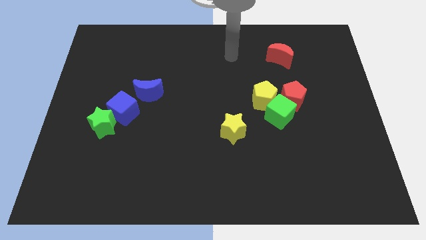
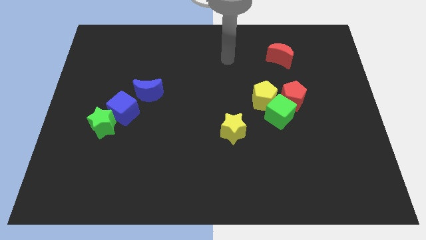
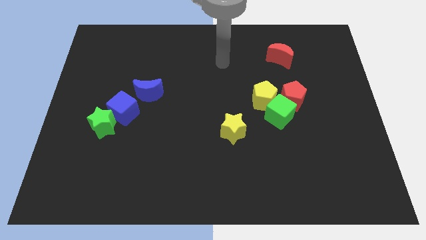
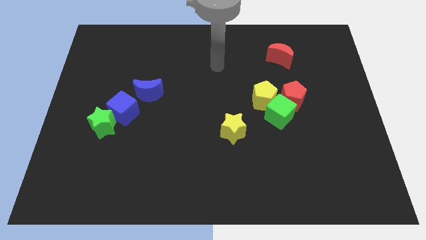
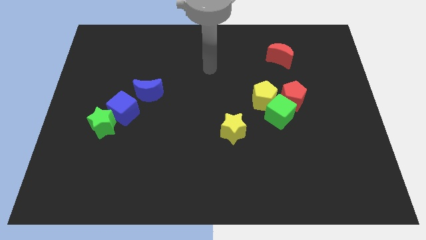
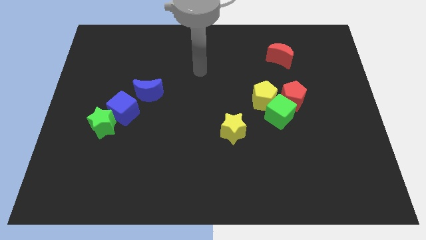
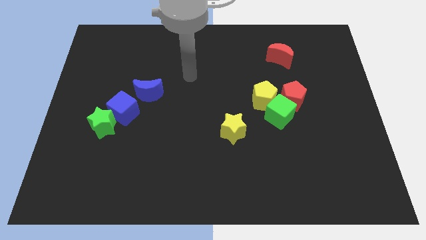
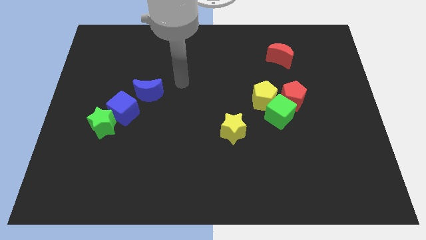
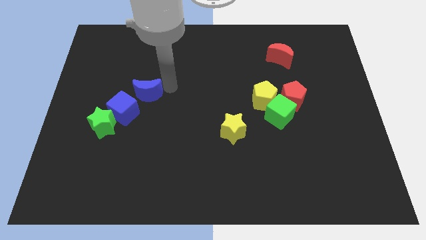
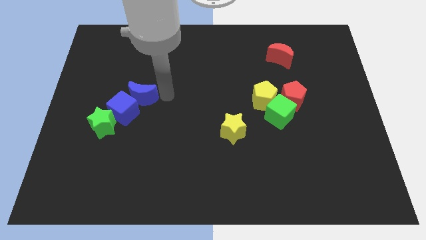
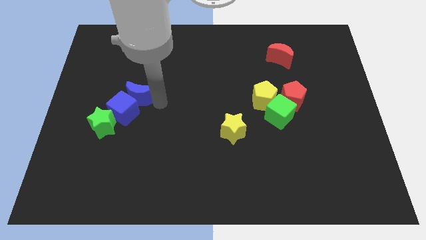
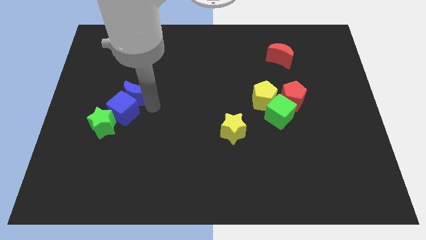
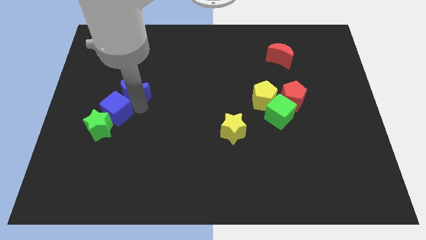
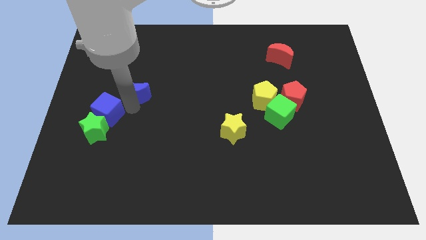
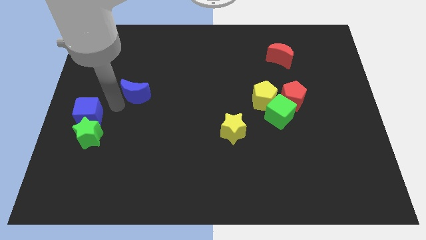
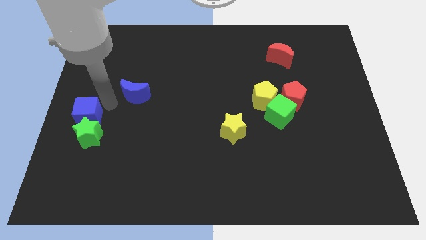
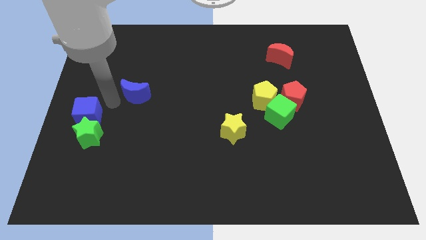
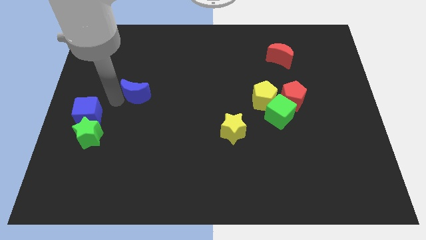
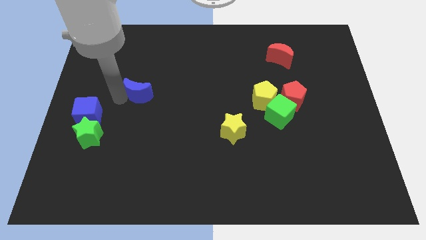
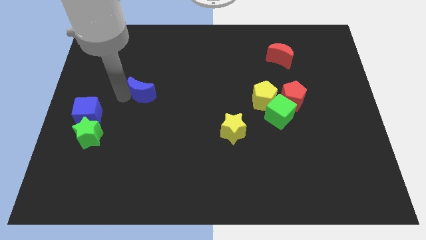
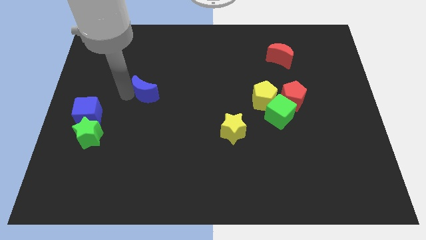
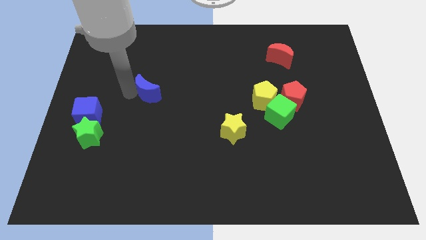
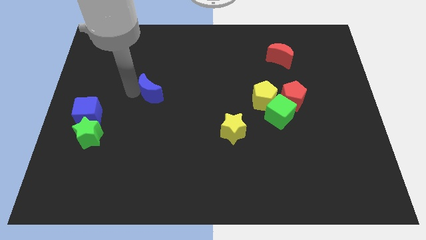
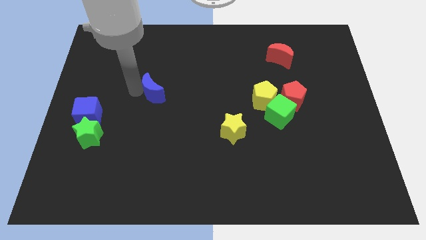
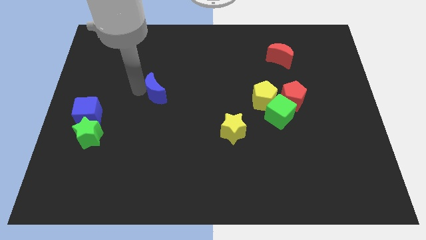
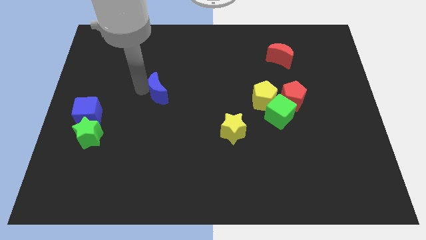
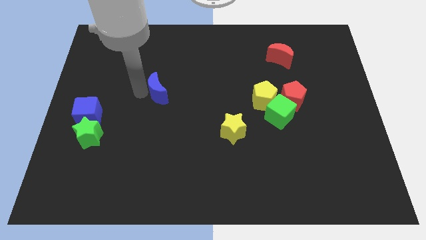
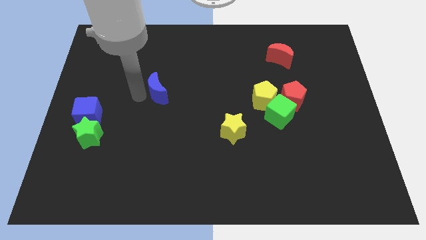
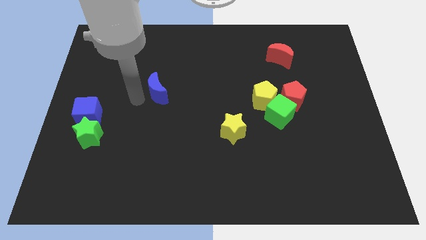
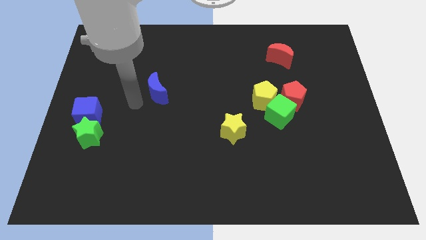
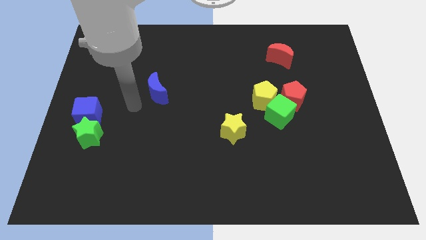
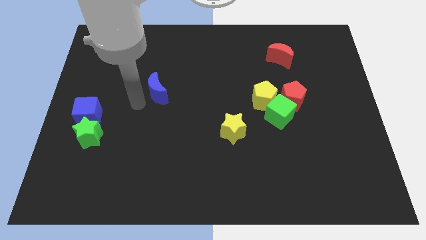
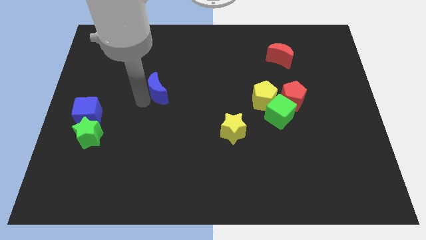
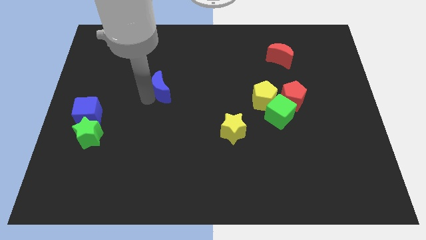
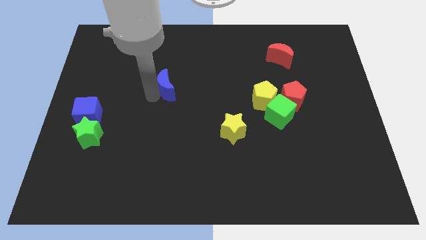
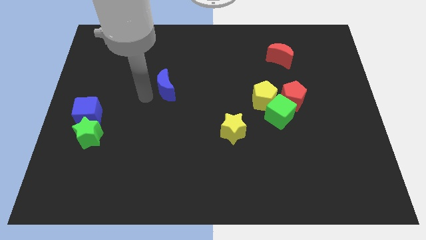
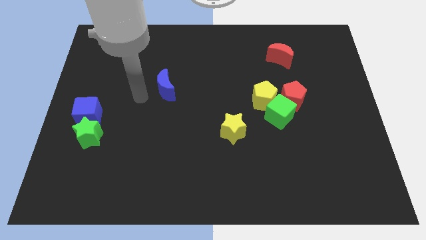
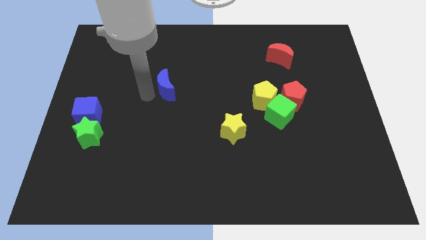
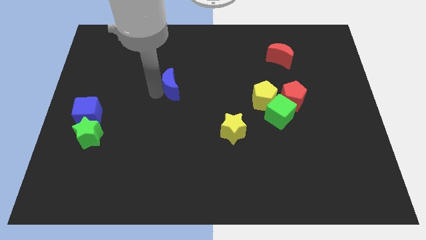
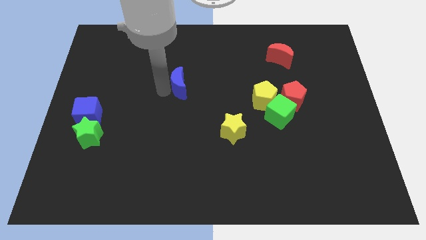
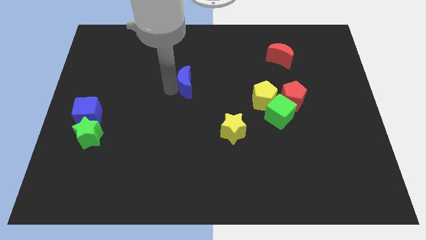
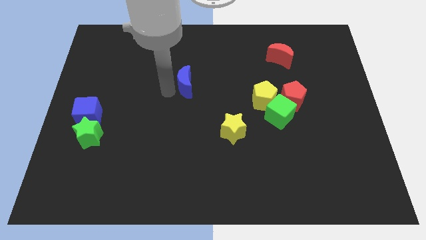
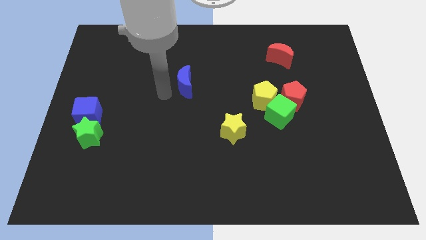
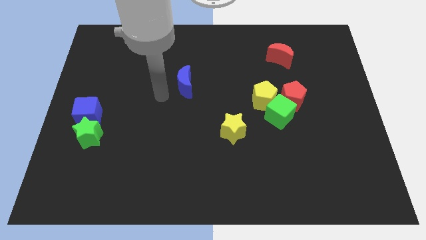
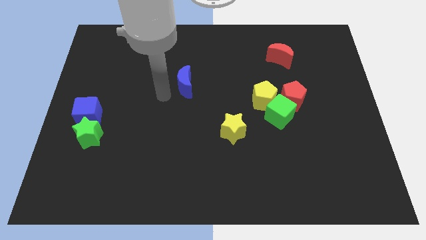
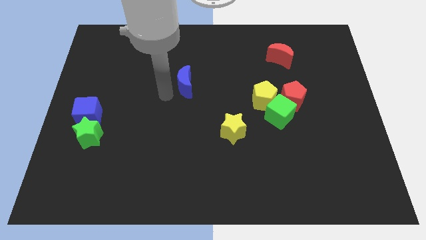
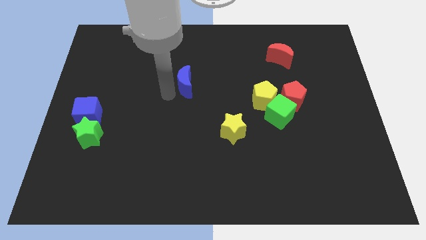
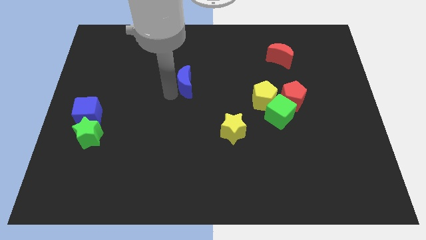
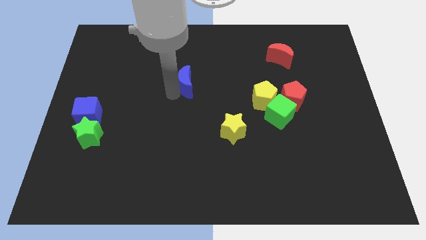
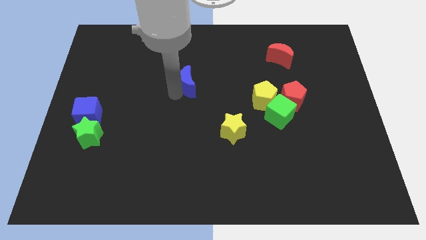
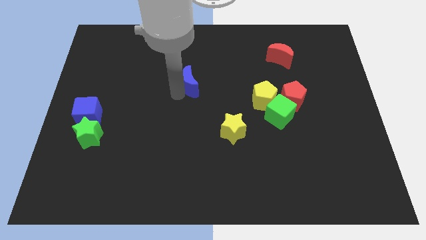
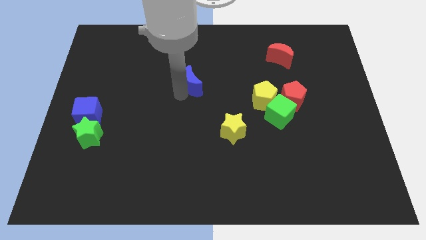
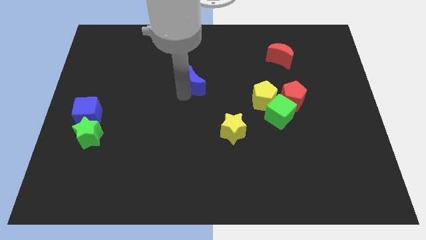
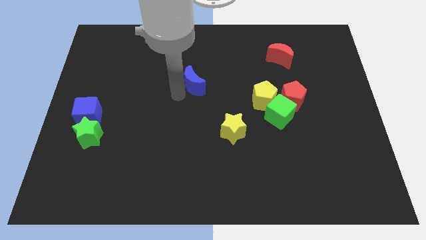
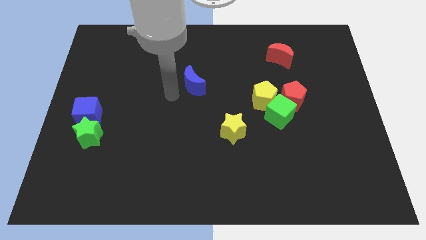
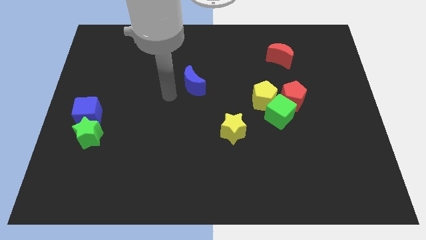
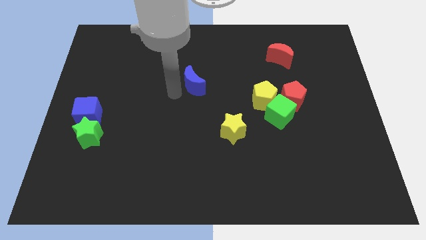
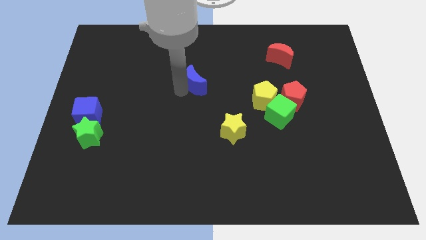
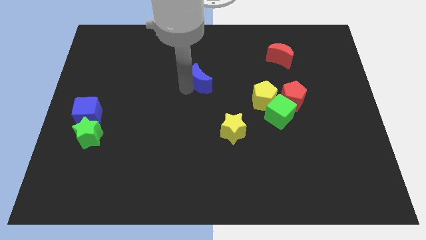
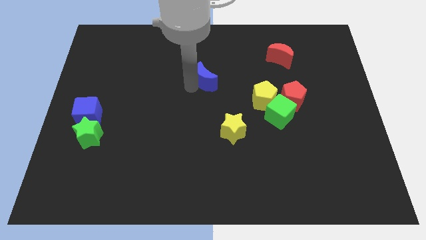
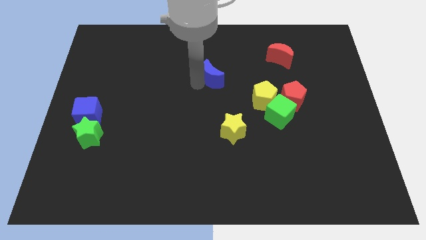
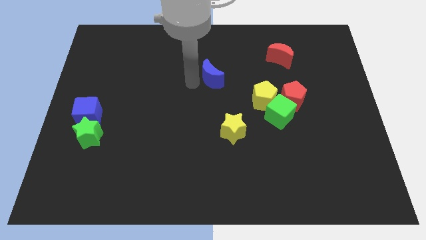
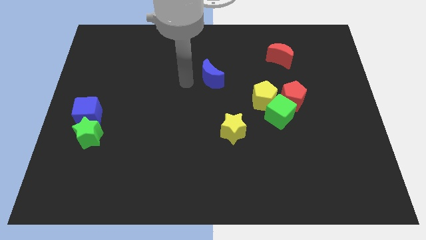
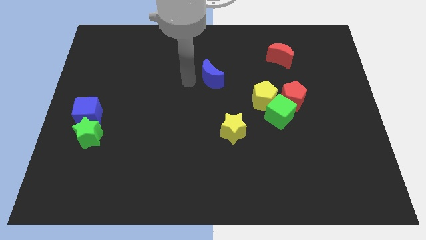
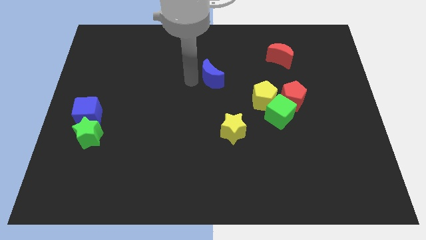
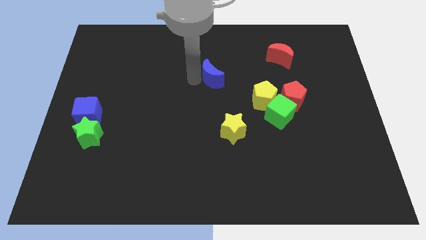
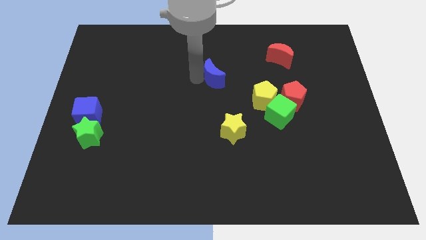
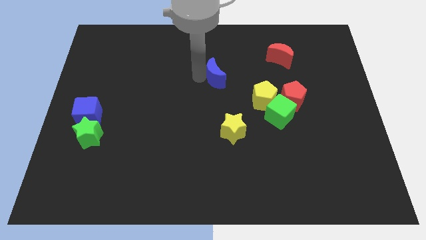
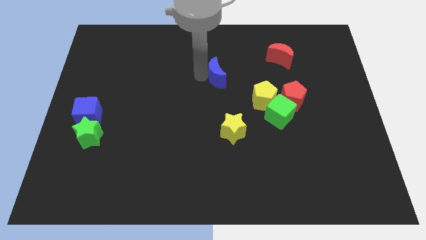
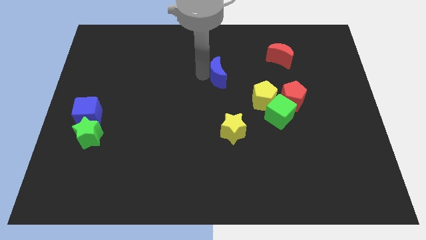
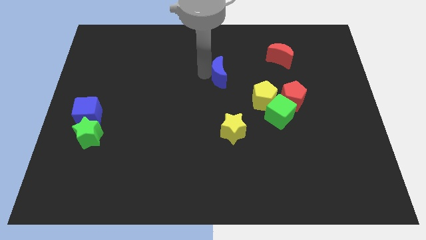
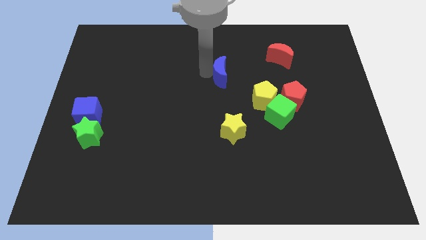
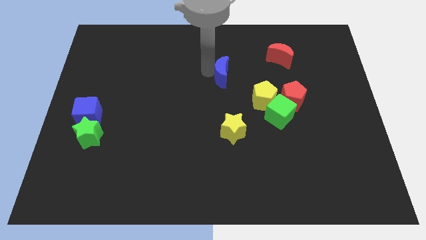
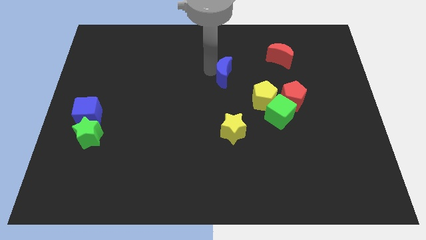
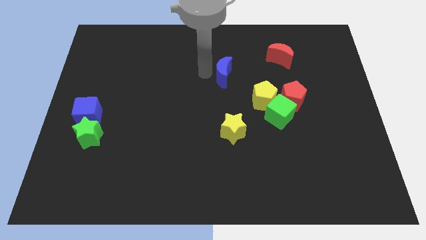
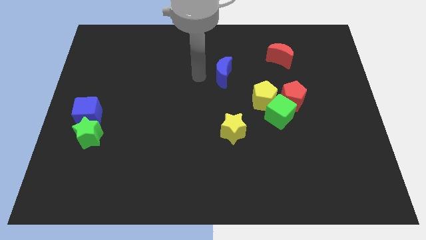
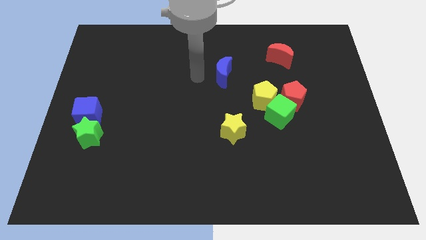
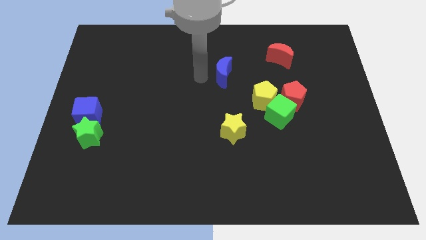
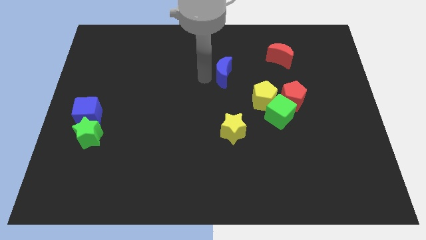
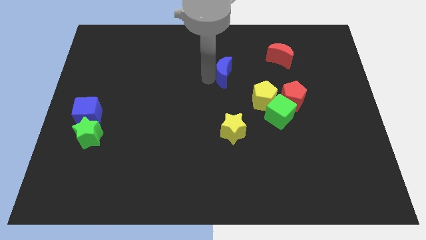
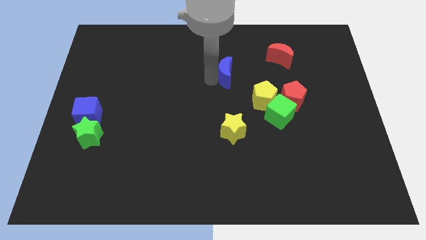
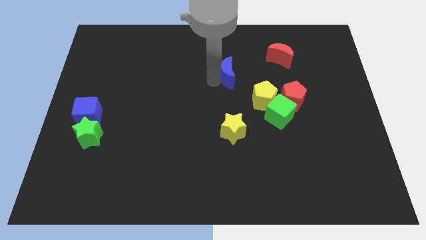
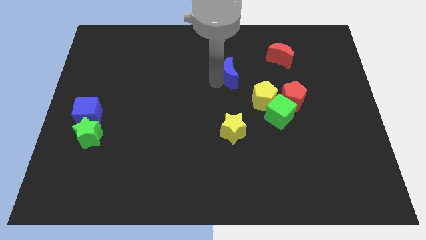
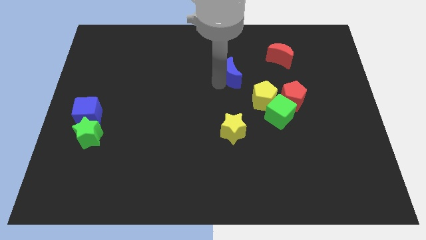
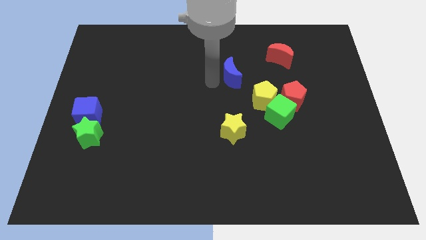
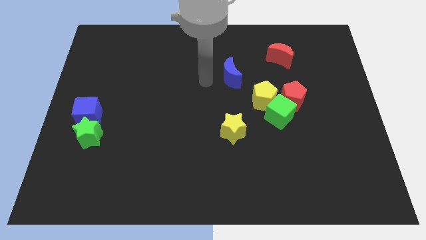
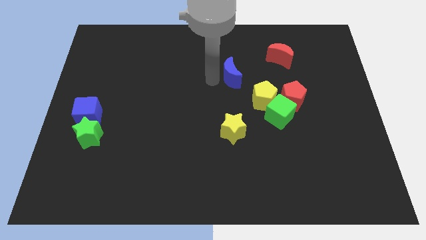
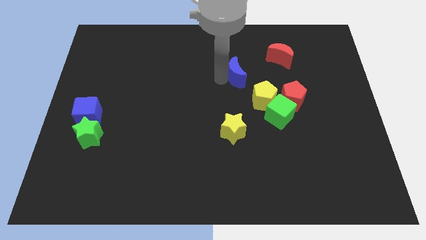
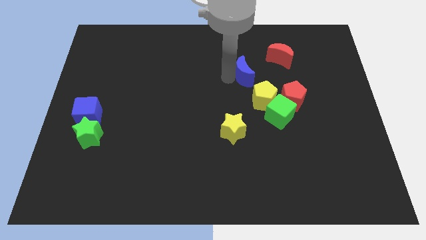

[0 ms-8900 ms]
move the blue moon to the bottom left side of the red moon
